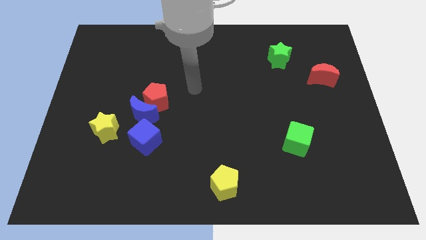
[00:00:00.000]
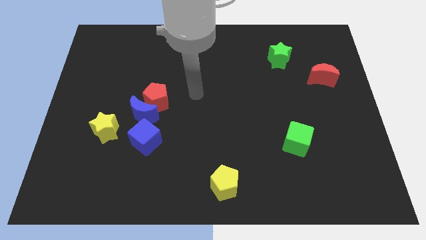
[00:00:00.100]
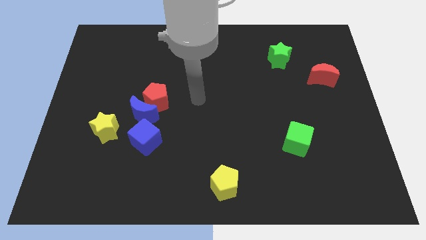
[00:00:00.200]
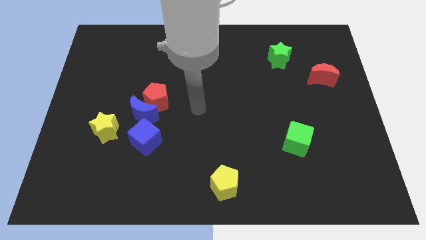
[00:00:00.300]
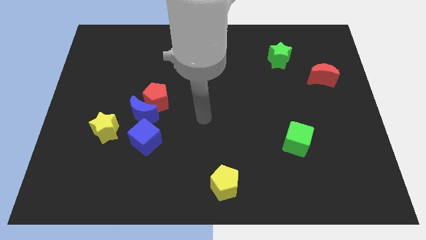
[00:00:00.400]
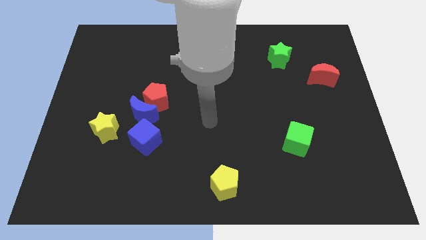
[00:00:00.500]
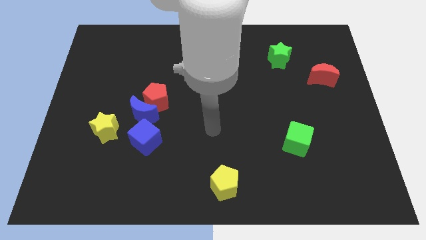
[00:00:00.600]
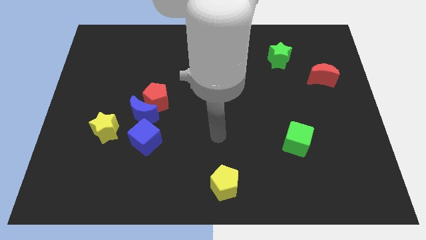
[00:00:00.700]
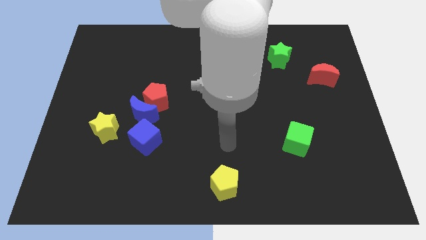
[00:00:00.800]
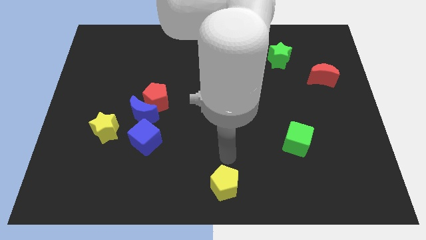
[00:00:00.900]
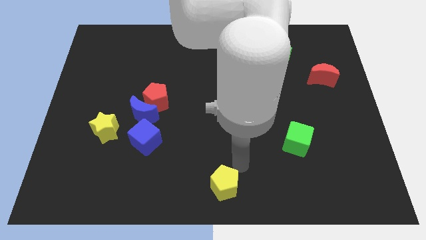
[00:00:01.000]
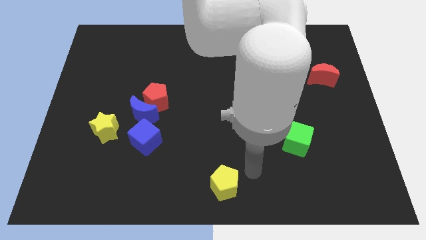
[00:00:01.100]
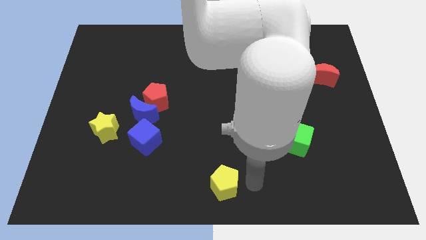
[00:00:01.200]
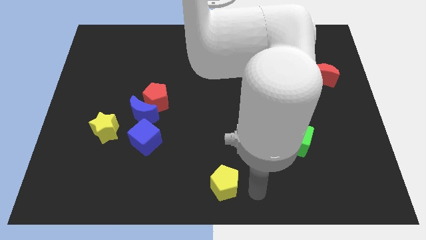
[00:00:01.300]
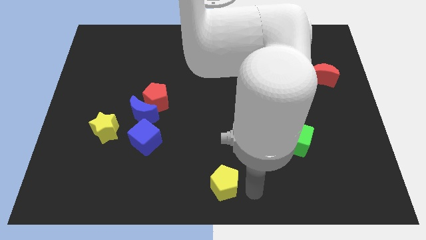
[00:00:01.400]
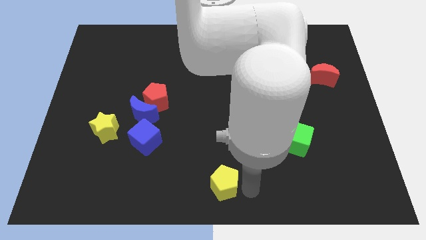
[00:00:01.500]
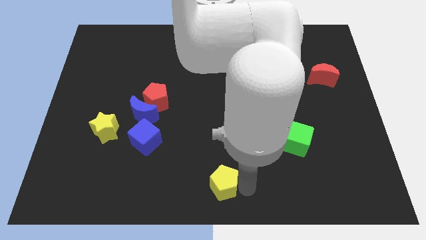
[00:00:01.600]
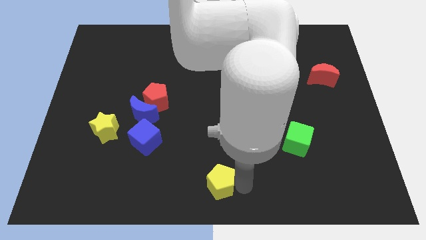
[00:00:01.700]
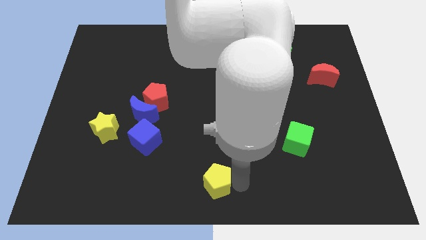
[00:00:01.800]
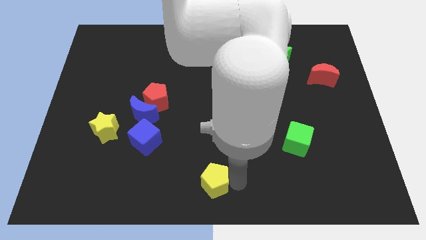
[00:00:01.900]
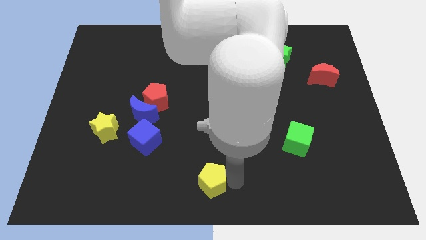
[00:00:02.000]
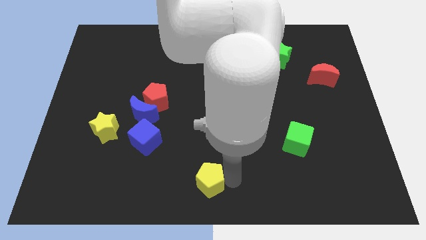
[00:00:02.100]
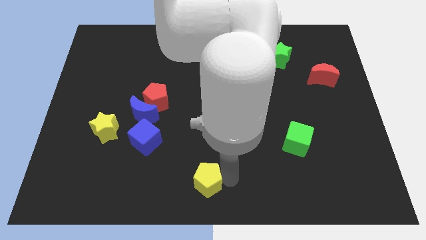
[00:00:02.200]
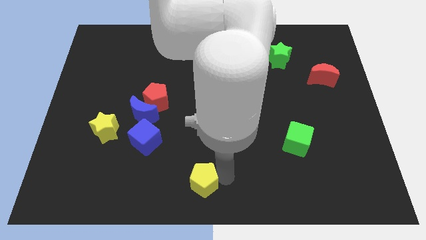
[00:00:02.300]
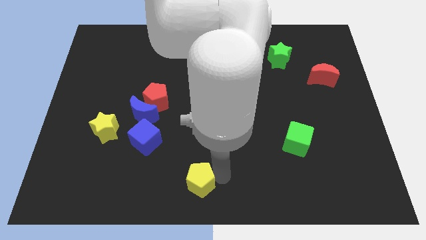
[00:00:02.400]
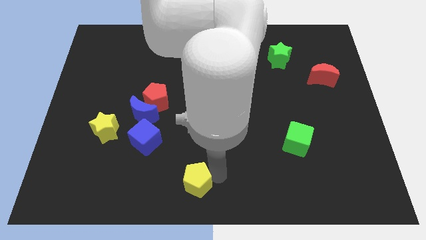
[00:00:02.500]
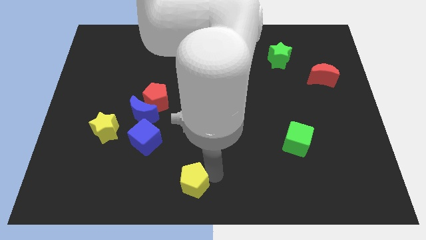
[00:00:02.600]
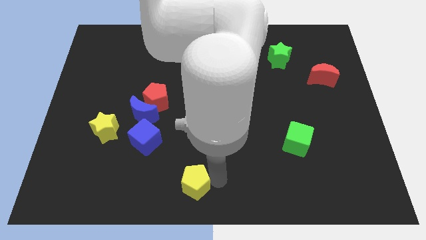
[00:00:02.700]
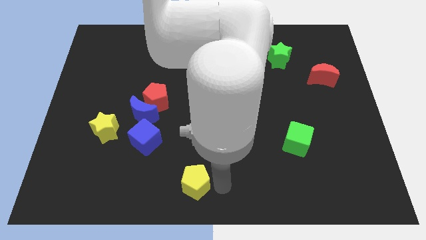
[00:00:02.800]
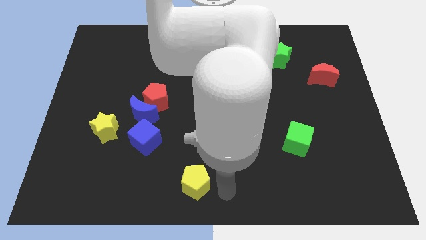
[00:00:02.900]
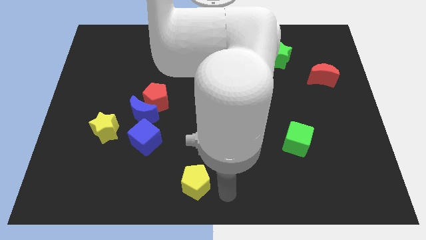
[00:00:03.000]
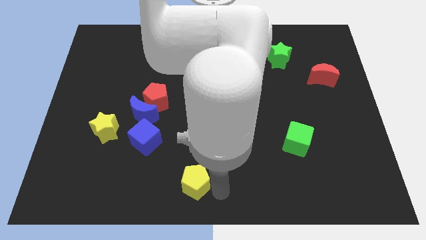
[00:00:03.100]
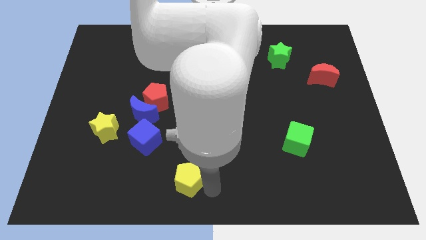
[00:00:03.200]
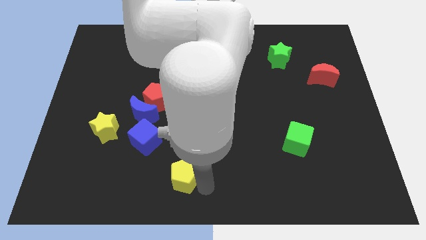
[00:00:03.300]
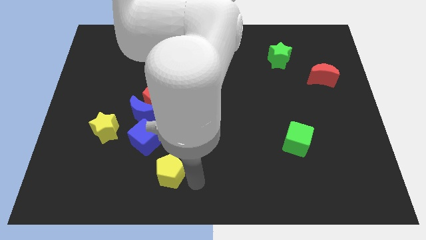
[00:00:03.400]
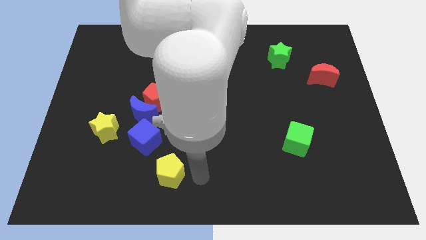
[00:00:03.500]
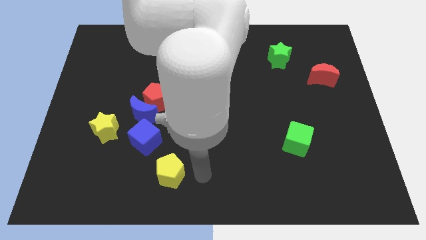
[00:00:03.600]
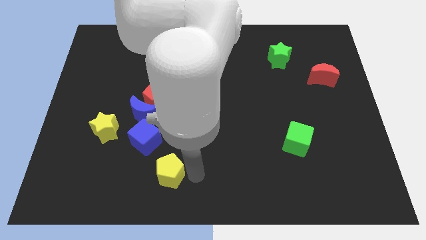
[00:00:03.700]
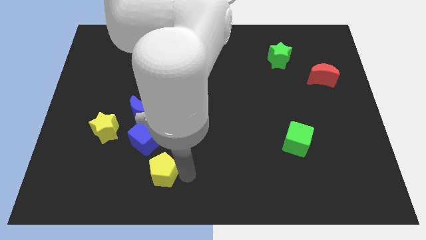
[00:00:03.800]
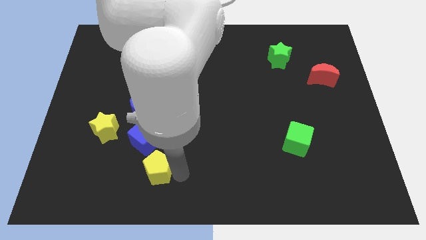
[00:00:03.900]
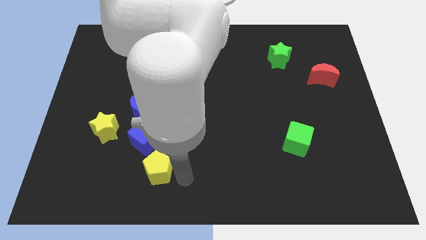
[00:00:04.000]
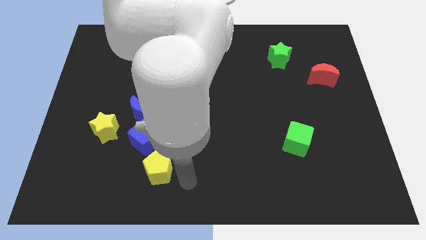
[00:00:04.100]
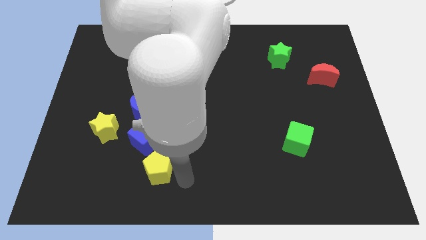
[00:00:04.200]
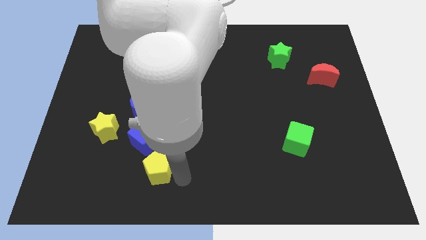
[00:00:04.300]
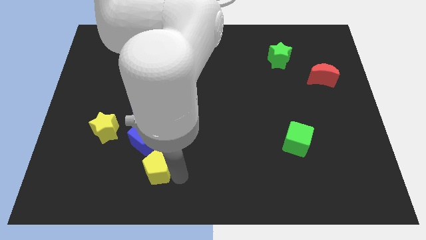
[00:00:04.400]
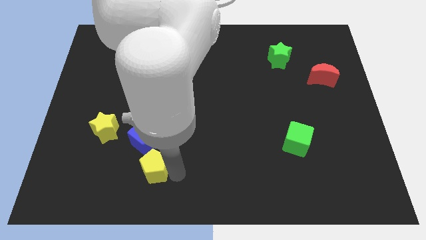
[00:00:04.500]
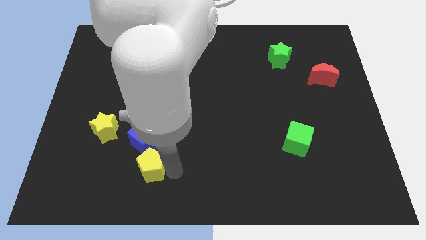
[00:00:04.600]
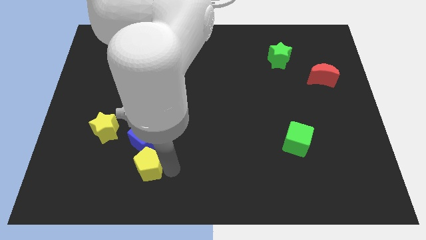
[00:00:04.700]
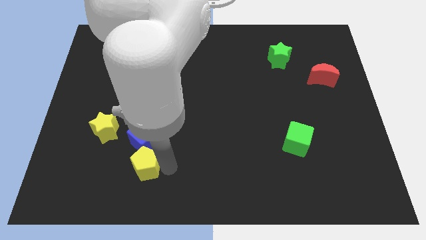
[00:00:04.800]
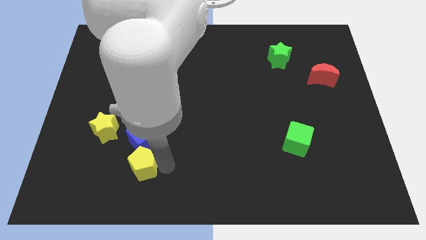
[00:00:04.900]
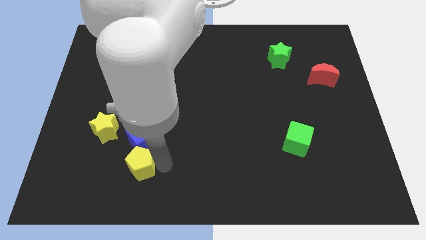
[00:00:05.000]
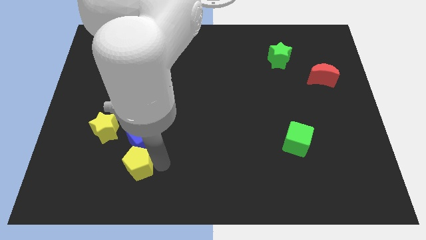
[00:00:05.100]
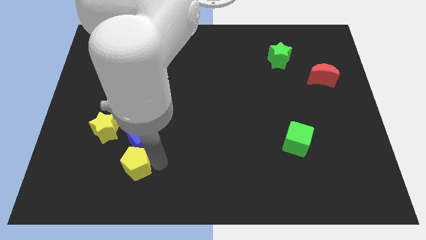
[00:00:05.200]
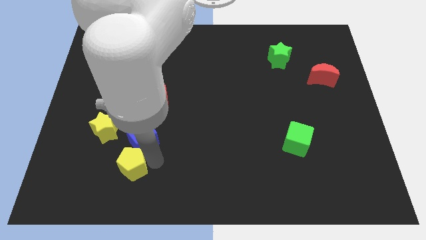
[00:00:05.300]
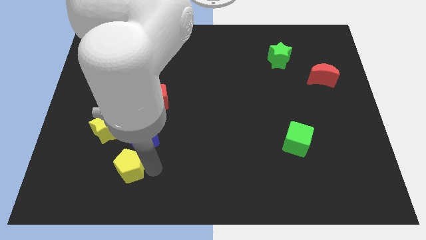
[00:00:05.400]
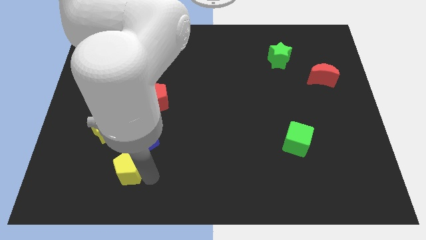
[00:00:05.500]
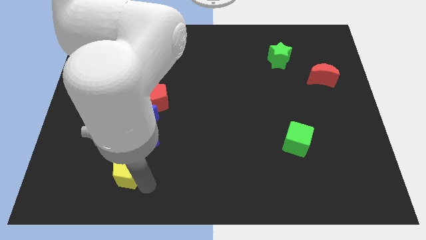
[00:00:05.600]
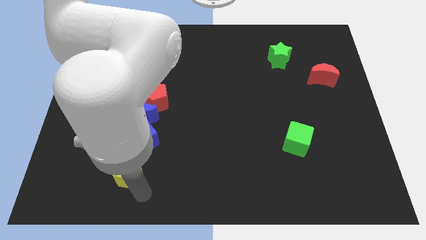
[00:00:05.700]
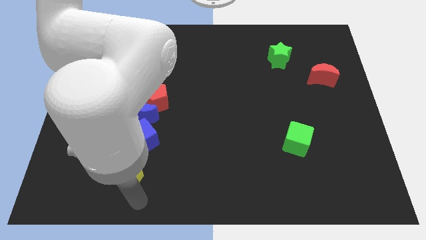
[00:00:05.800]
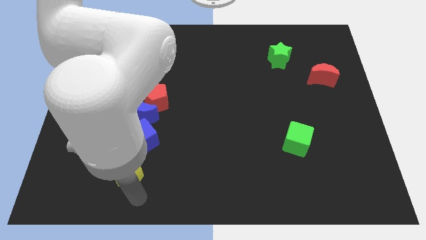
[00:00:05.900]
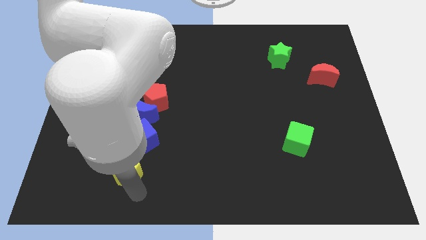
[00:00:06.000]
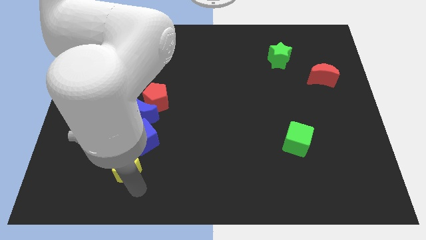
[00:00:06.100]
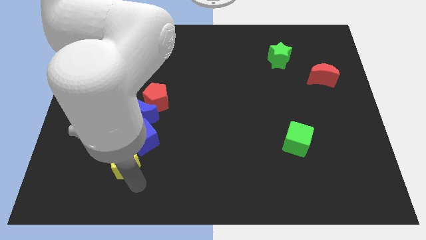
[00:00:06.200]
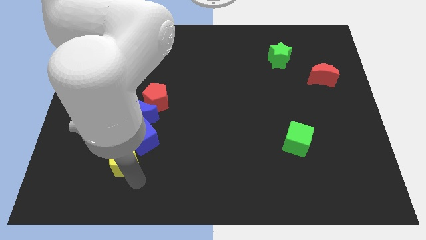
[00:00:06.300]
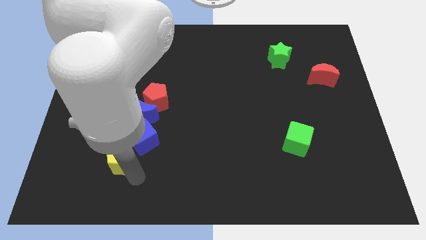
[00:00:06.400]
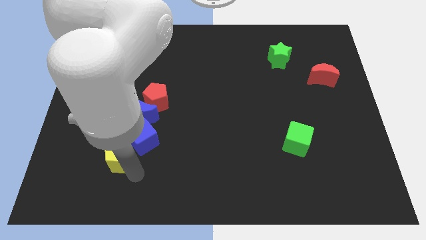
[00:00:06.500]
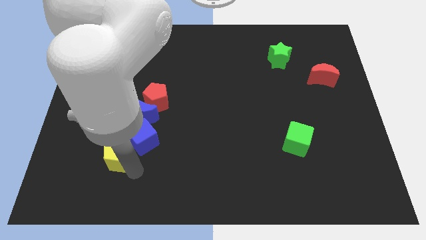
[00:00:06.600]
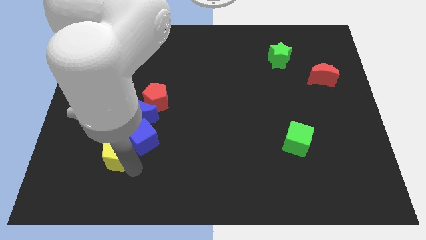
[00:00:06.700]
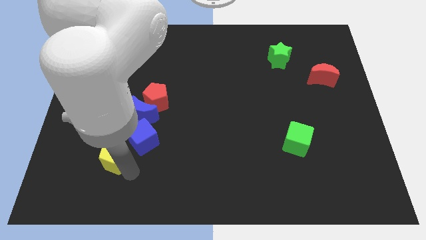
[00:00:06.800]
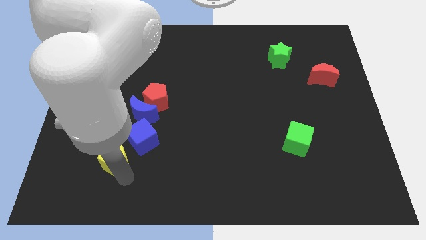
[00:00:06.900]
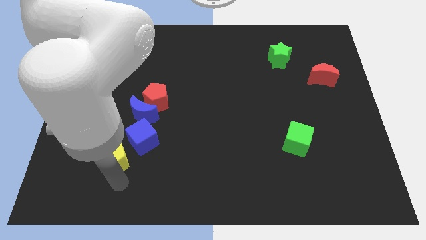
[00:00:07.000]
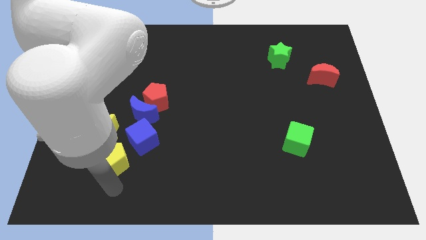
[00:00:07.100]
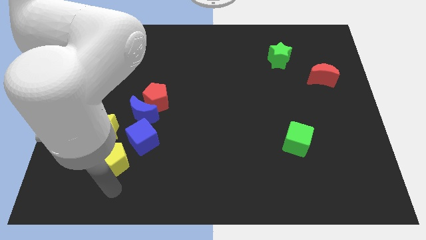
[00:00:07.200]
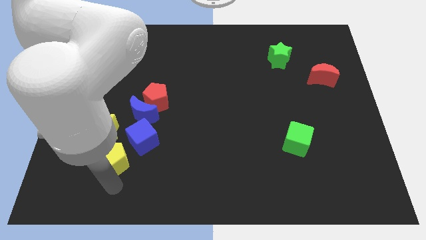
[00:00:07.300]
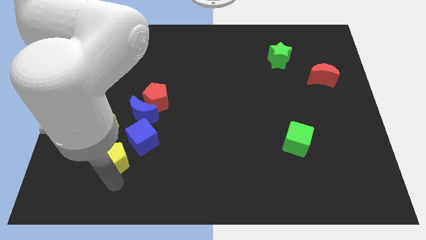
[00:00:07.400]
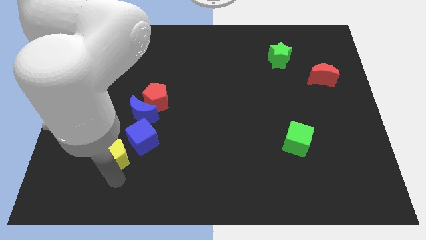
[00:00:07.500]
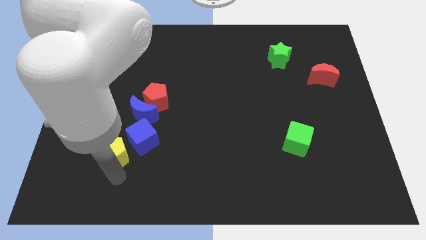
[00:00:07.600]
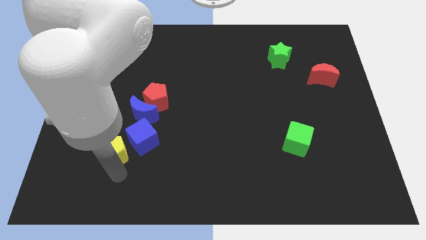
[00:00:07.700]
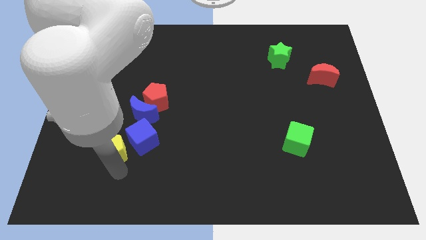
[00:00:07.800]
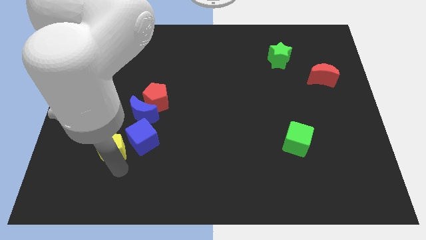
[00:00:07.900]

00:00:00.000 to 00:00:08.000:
slide the yellow pentagon close to the yellow star
